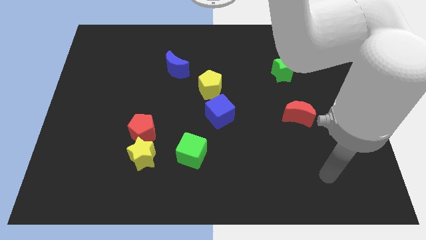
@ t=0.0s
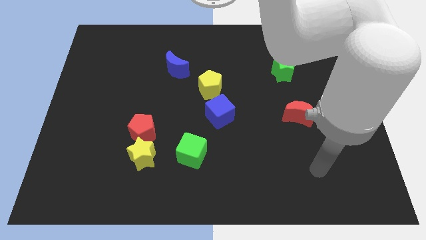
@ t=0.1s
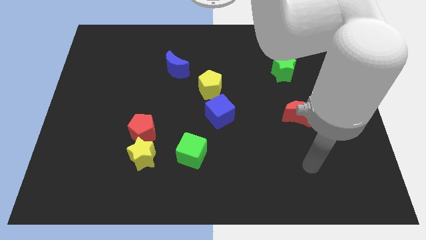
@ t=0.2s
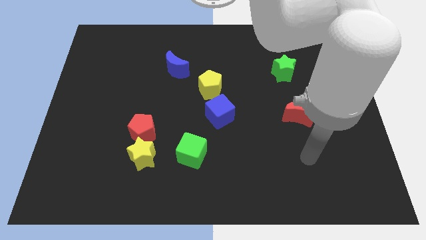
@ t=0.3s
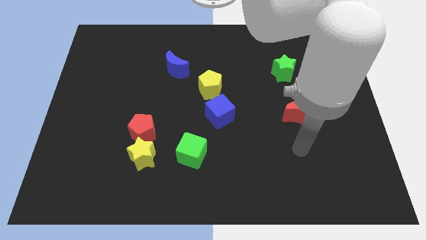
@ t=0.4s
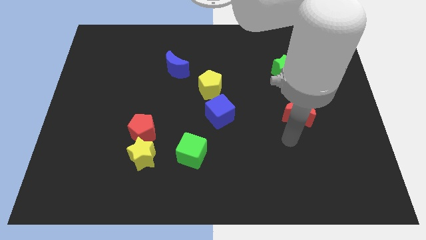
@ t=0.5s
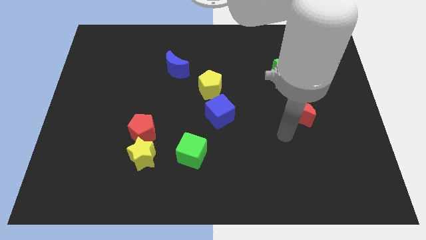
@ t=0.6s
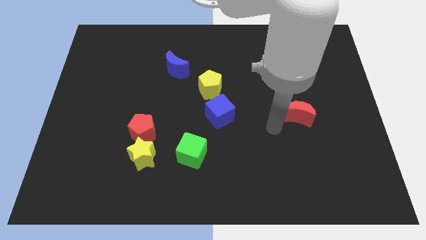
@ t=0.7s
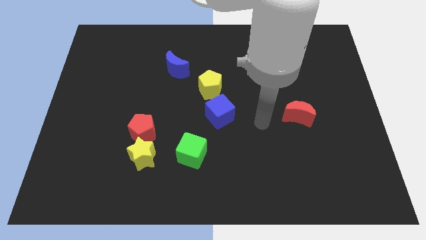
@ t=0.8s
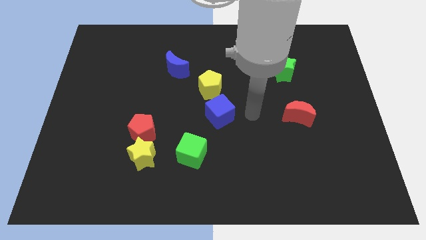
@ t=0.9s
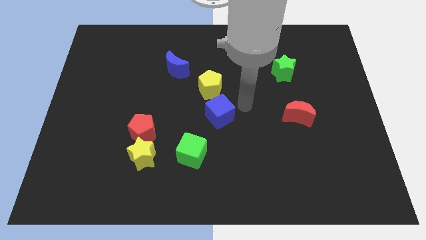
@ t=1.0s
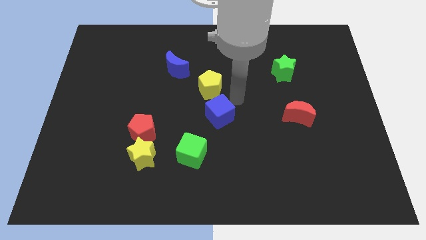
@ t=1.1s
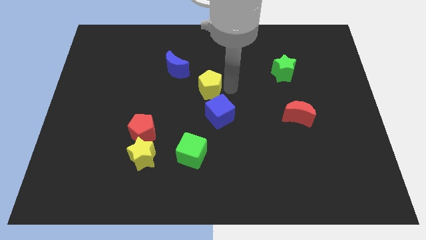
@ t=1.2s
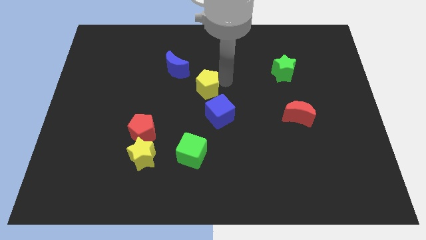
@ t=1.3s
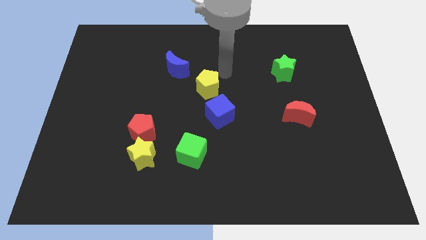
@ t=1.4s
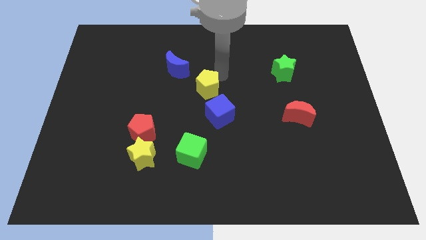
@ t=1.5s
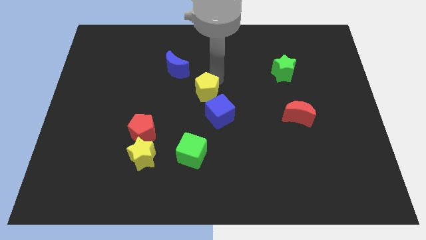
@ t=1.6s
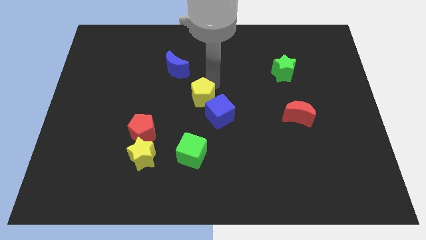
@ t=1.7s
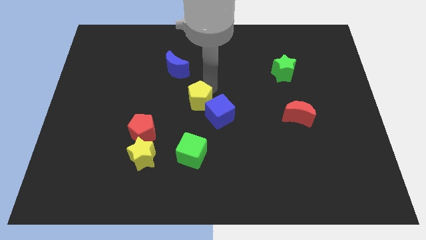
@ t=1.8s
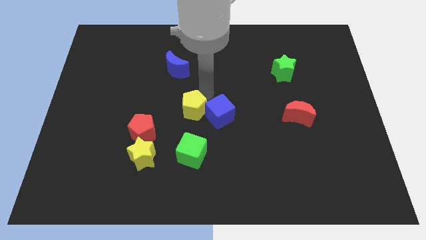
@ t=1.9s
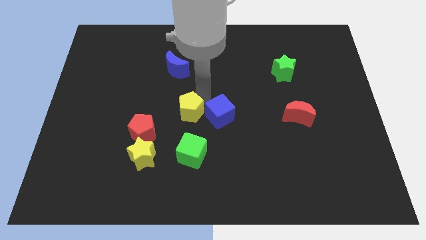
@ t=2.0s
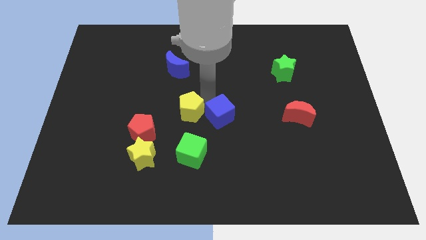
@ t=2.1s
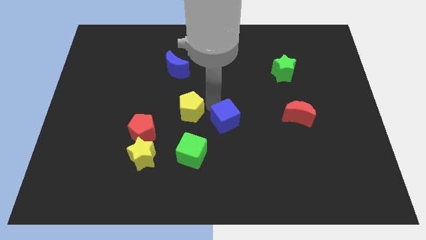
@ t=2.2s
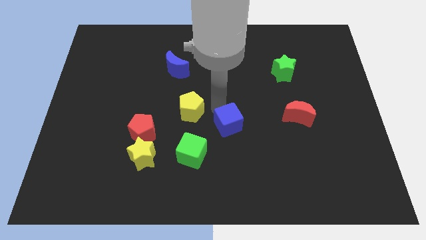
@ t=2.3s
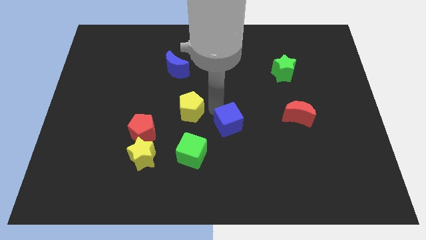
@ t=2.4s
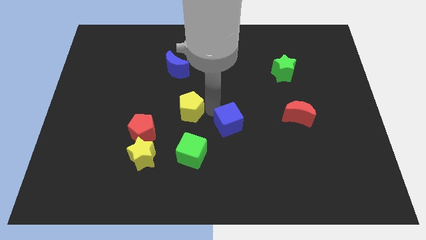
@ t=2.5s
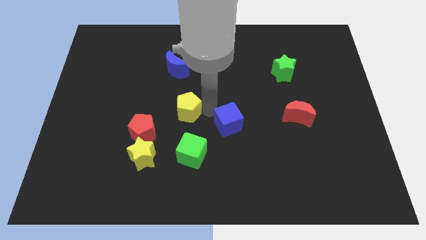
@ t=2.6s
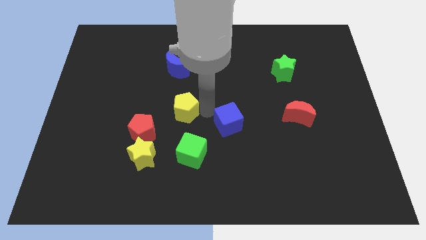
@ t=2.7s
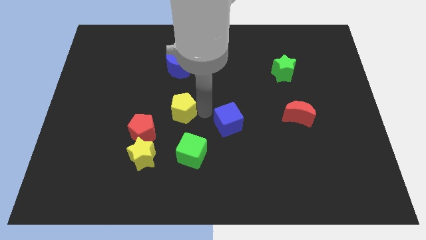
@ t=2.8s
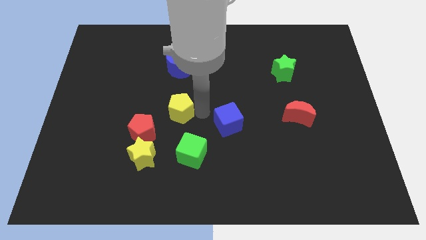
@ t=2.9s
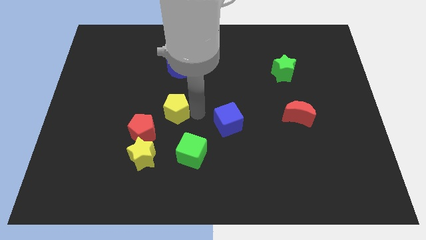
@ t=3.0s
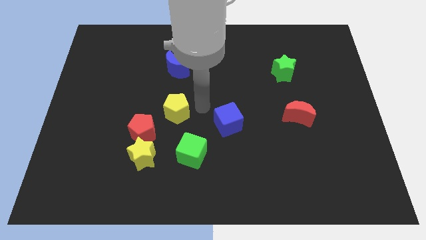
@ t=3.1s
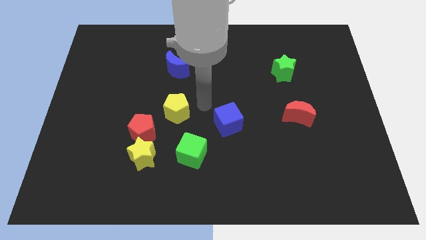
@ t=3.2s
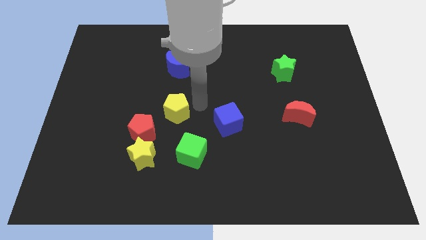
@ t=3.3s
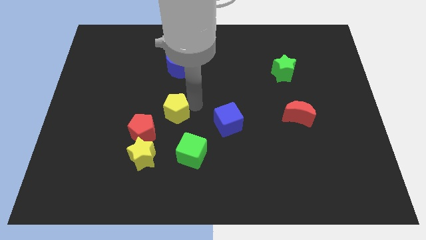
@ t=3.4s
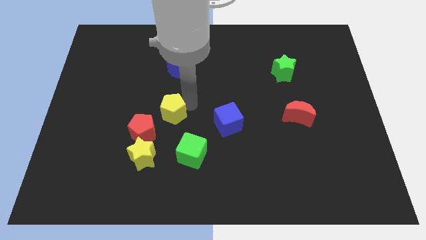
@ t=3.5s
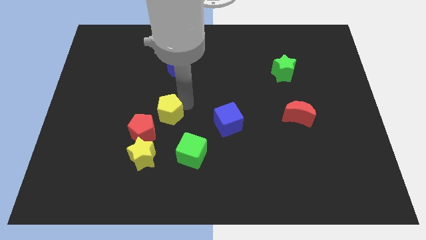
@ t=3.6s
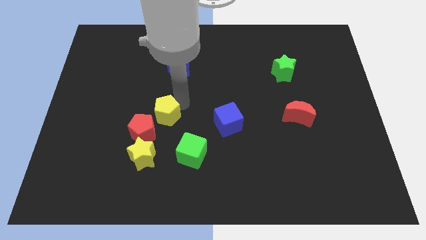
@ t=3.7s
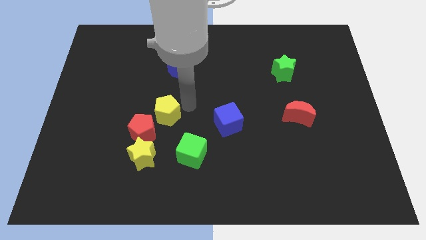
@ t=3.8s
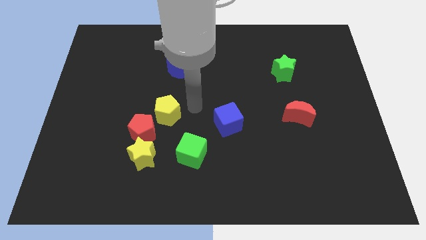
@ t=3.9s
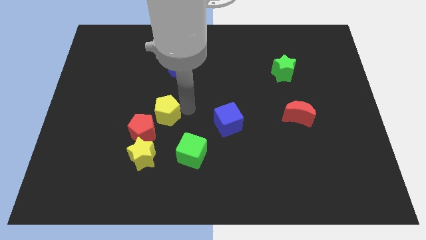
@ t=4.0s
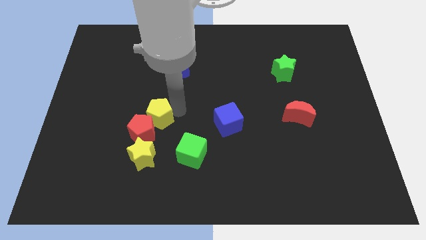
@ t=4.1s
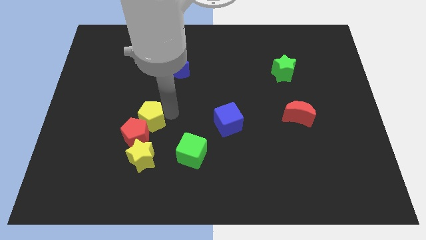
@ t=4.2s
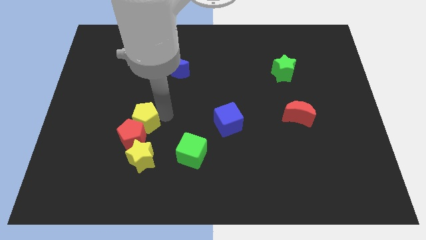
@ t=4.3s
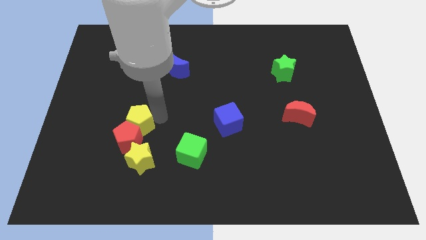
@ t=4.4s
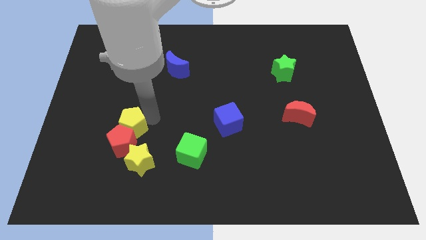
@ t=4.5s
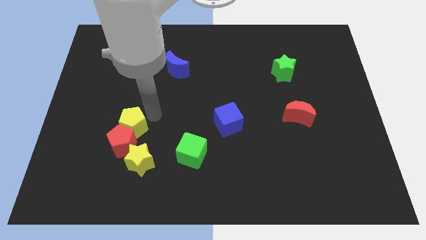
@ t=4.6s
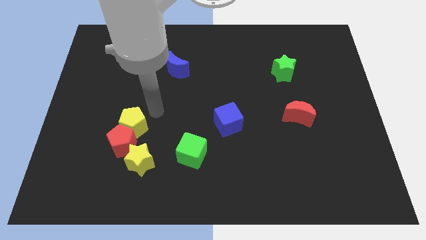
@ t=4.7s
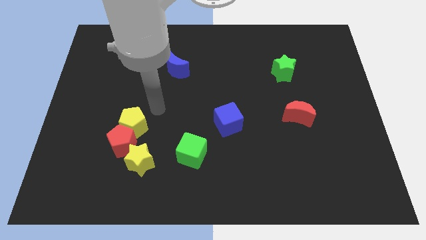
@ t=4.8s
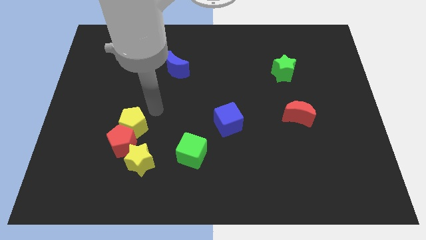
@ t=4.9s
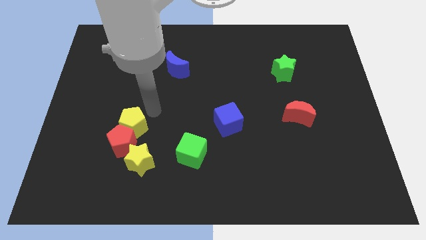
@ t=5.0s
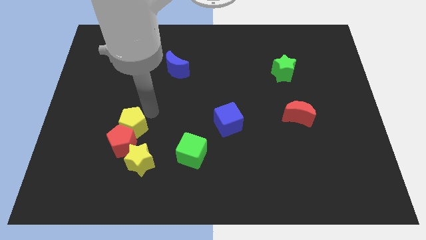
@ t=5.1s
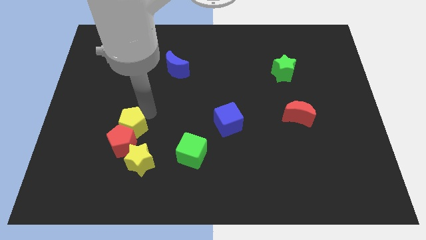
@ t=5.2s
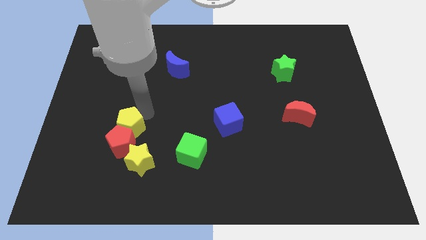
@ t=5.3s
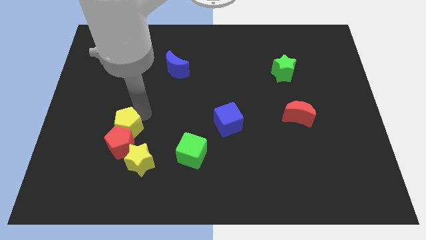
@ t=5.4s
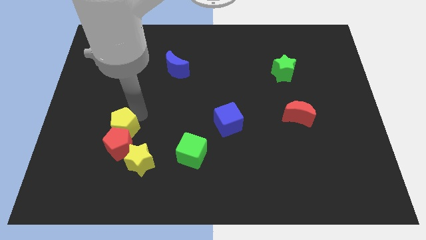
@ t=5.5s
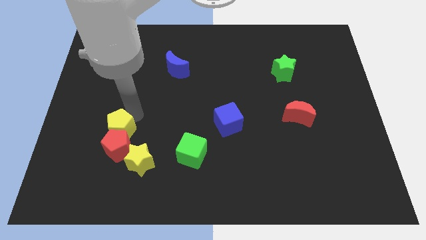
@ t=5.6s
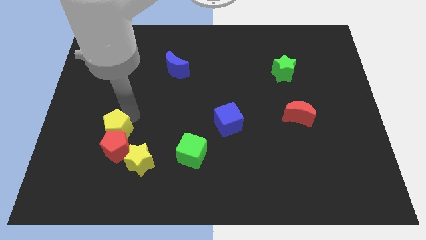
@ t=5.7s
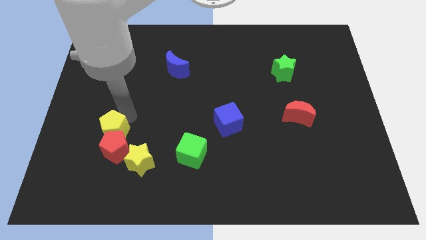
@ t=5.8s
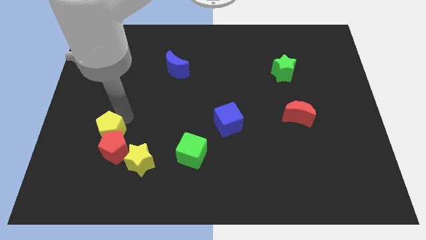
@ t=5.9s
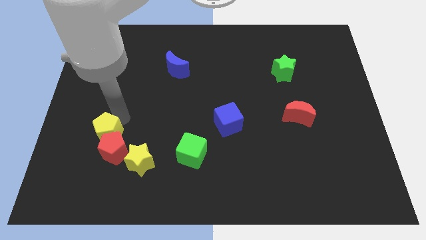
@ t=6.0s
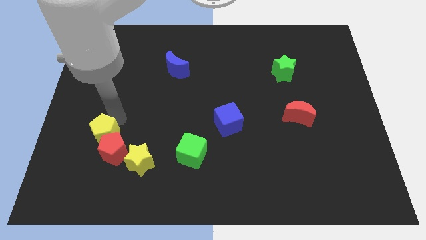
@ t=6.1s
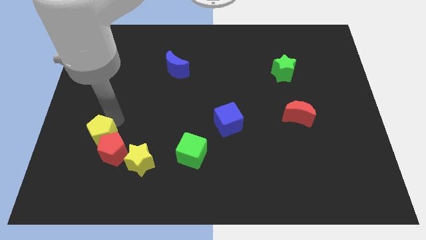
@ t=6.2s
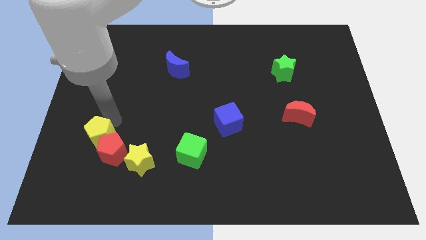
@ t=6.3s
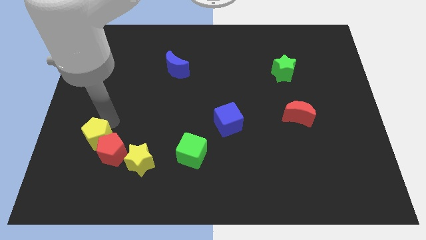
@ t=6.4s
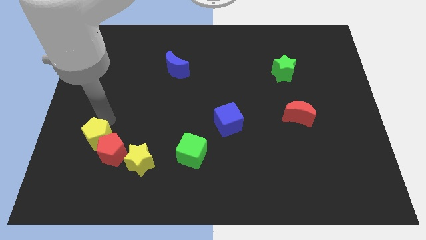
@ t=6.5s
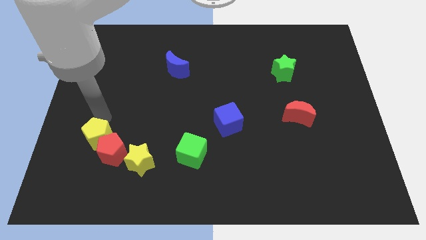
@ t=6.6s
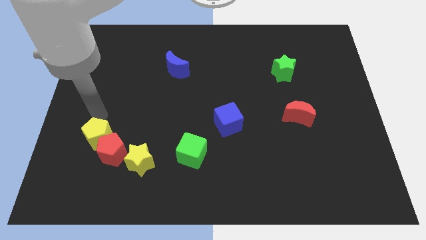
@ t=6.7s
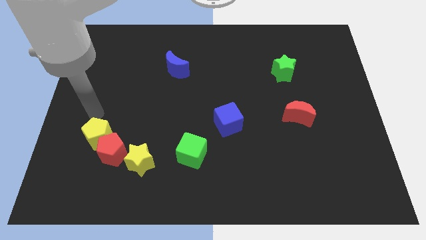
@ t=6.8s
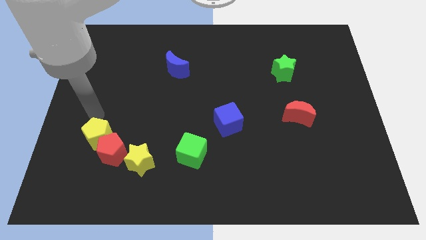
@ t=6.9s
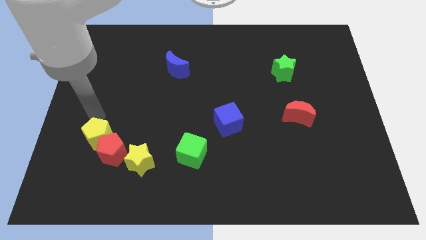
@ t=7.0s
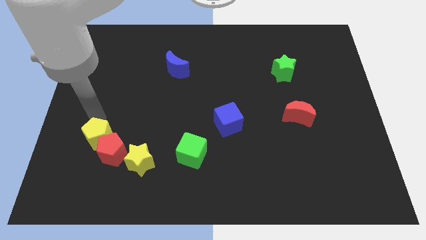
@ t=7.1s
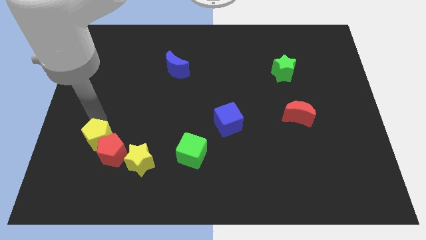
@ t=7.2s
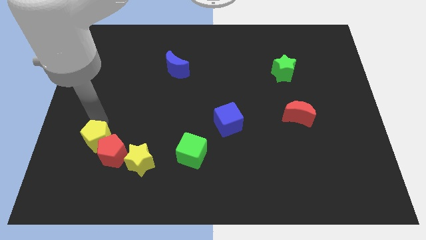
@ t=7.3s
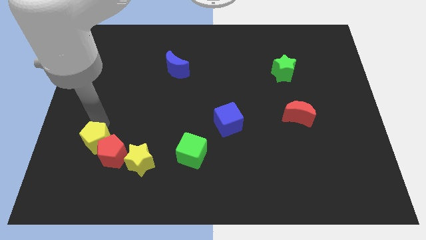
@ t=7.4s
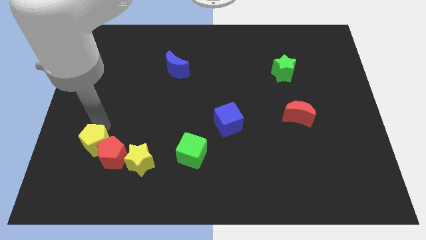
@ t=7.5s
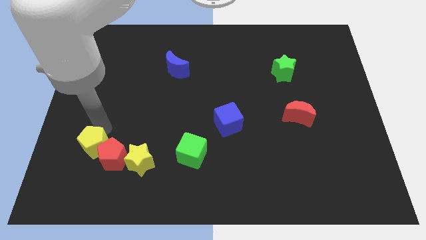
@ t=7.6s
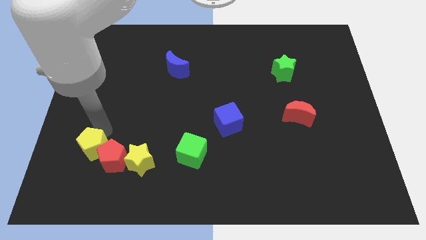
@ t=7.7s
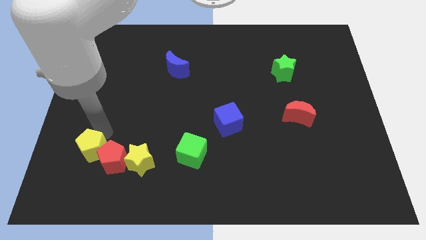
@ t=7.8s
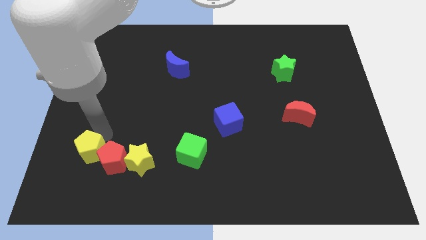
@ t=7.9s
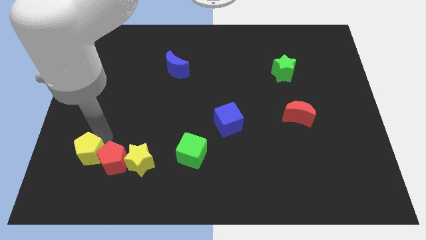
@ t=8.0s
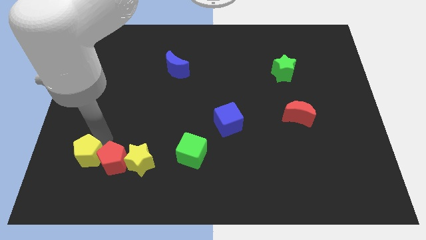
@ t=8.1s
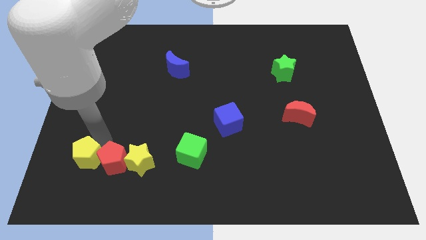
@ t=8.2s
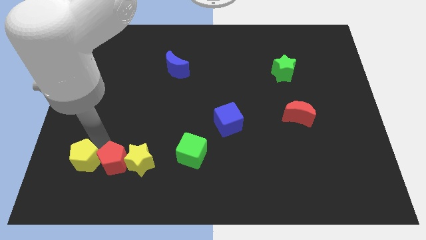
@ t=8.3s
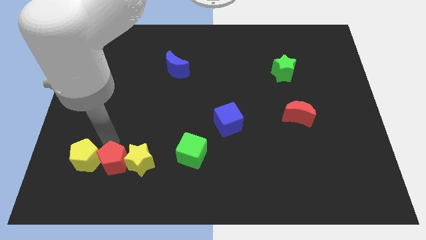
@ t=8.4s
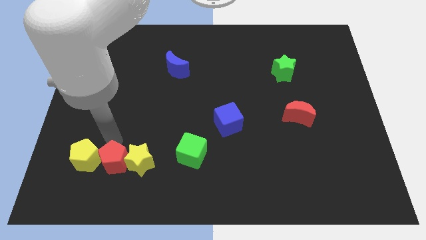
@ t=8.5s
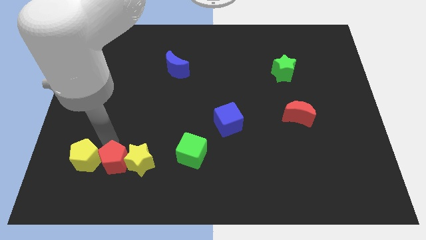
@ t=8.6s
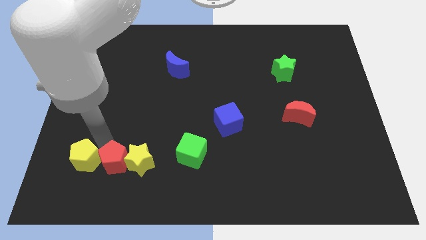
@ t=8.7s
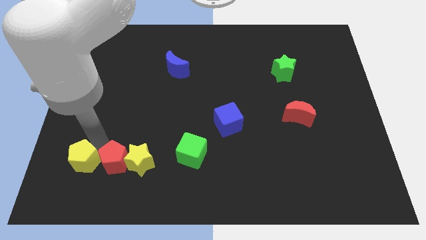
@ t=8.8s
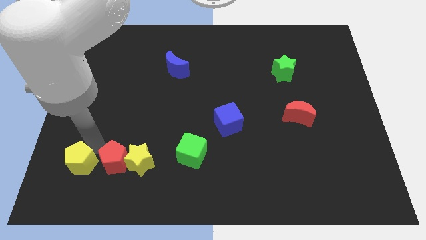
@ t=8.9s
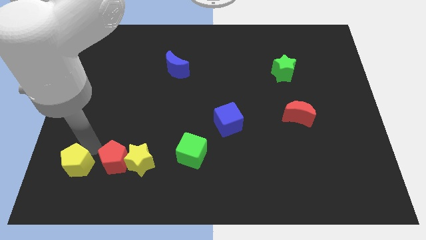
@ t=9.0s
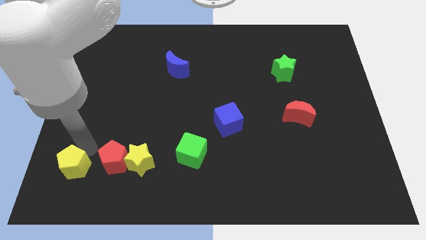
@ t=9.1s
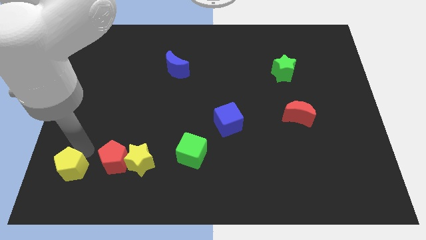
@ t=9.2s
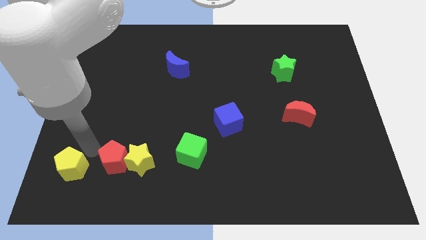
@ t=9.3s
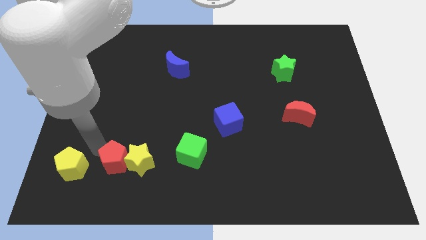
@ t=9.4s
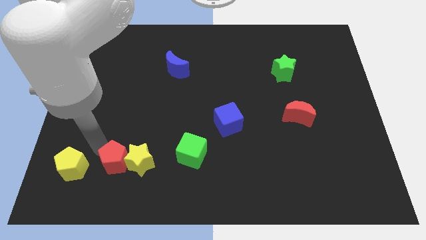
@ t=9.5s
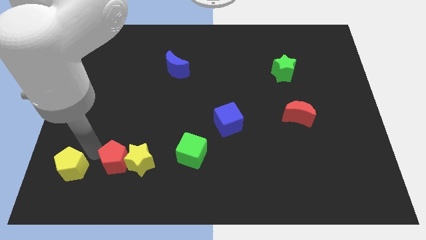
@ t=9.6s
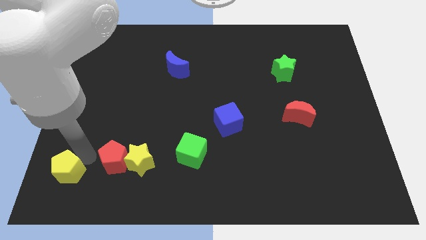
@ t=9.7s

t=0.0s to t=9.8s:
move the yellow pentagon to the bottom left of the board
